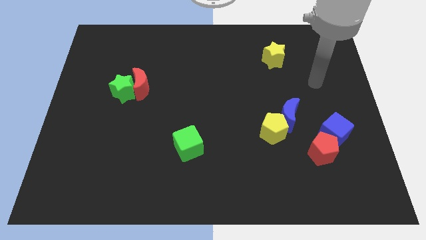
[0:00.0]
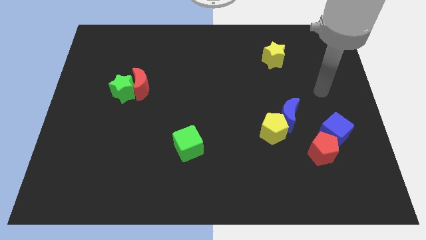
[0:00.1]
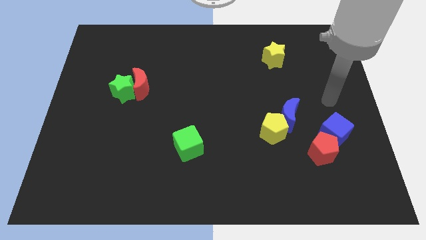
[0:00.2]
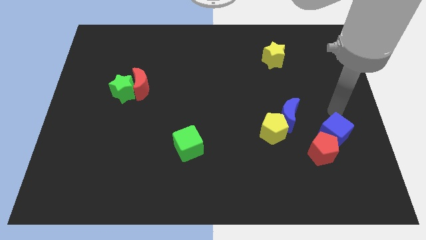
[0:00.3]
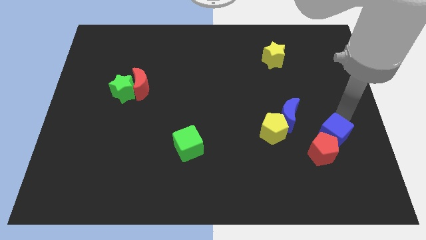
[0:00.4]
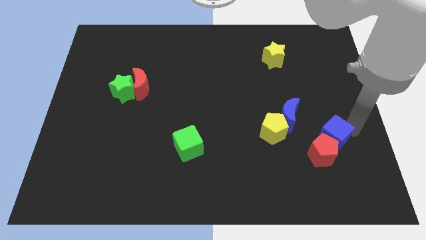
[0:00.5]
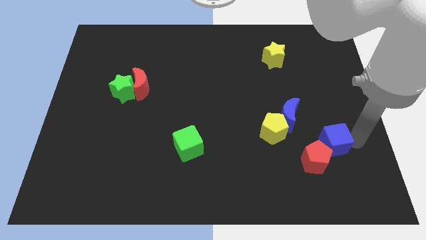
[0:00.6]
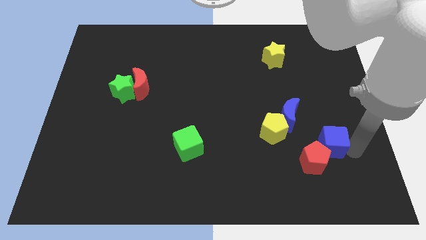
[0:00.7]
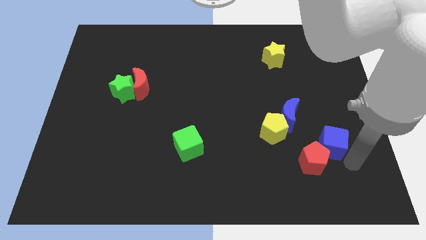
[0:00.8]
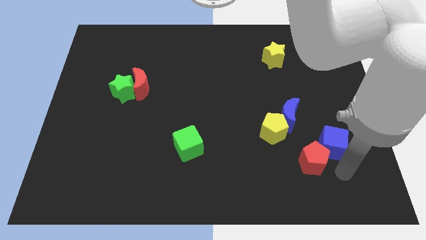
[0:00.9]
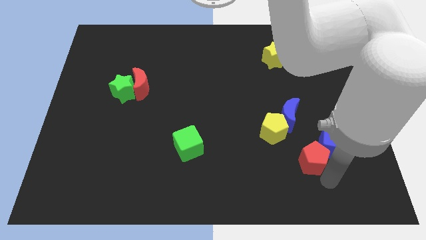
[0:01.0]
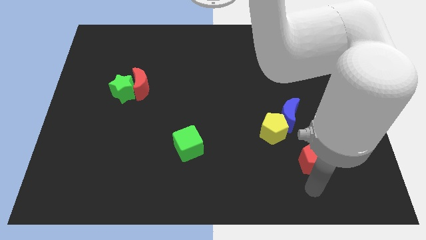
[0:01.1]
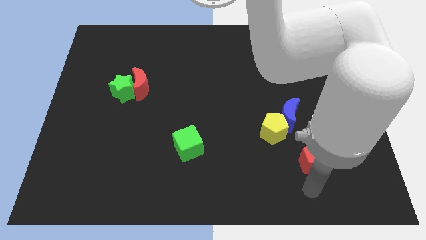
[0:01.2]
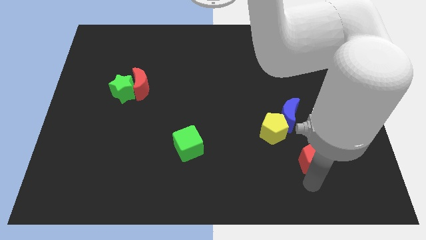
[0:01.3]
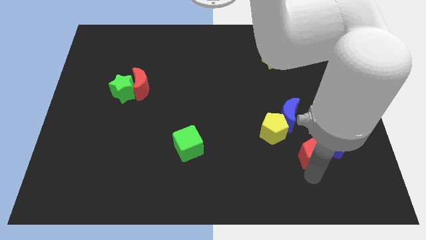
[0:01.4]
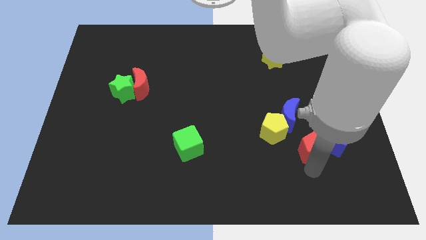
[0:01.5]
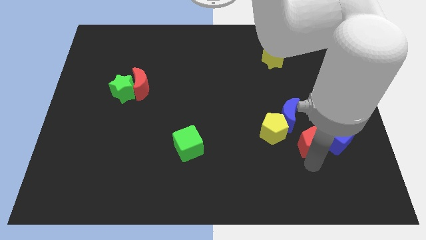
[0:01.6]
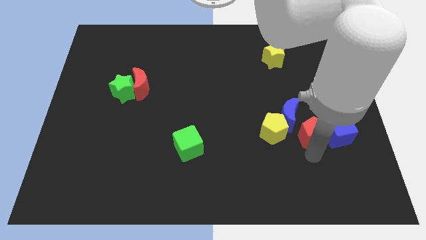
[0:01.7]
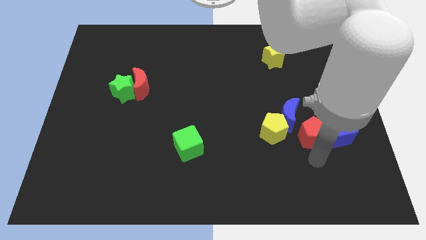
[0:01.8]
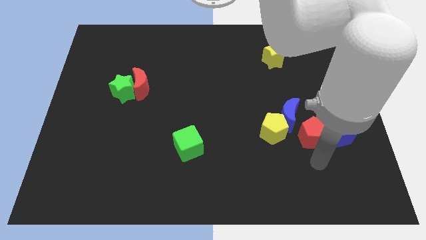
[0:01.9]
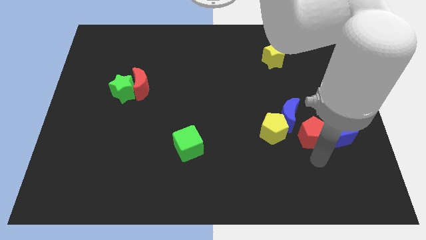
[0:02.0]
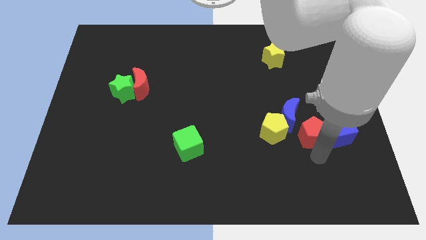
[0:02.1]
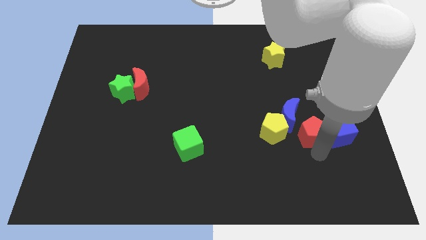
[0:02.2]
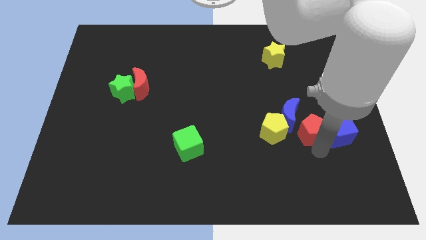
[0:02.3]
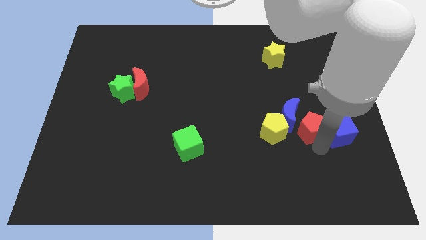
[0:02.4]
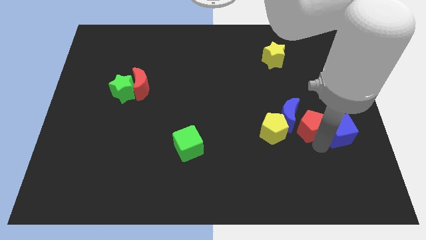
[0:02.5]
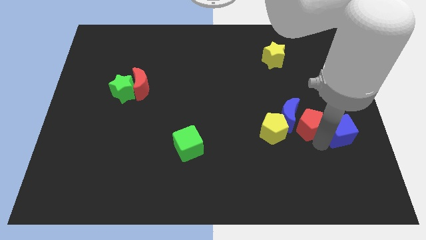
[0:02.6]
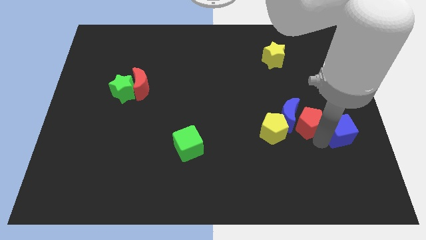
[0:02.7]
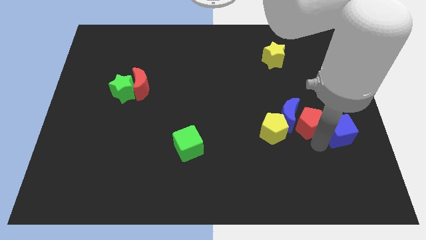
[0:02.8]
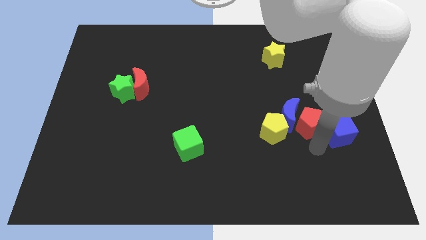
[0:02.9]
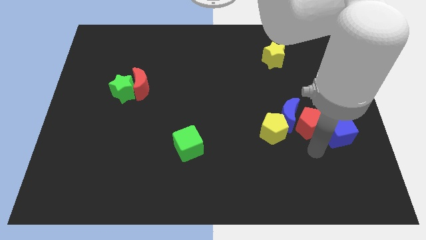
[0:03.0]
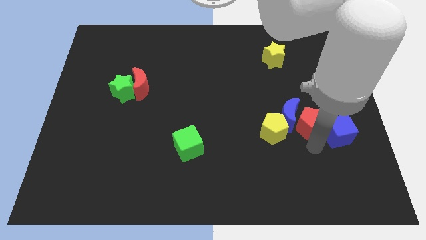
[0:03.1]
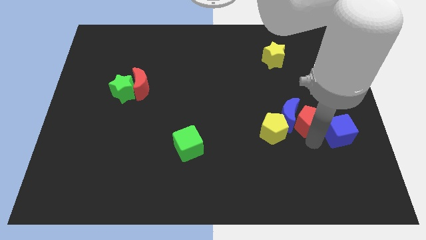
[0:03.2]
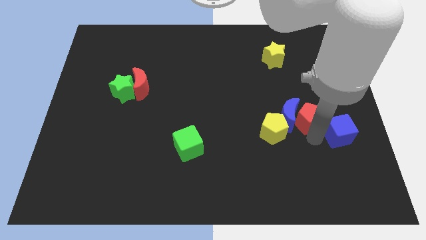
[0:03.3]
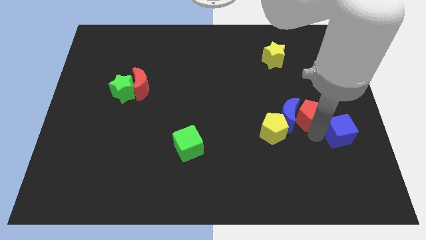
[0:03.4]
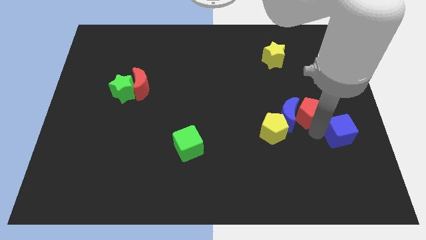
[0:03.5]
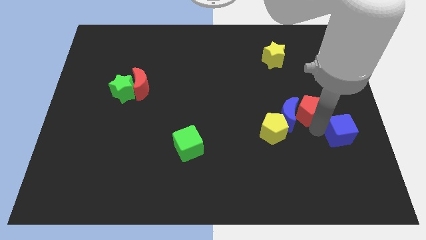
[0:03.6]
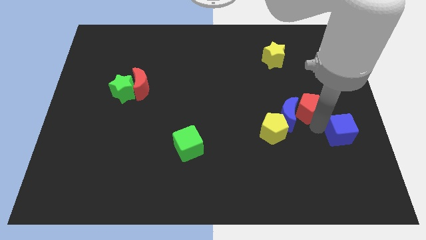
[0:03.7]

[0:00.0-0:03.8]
slightly push the red pentagon up and to the left

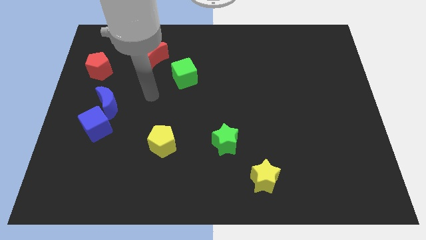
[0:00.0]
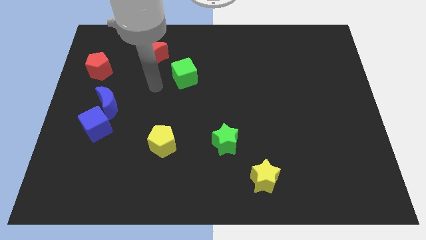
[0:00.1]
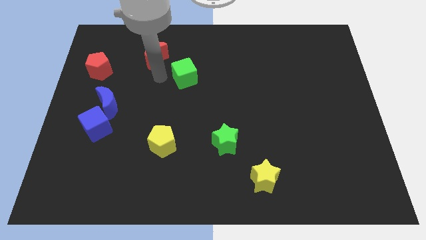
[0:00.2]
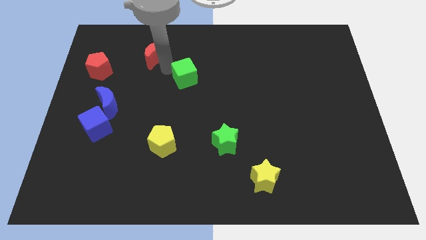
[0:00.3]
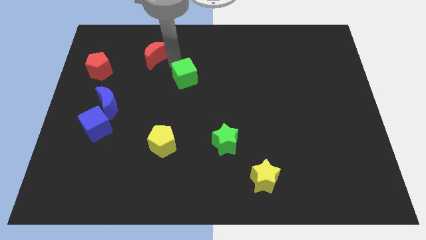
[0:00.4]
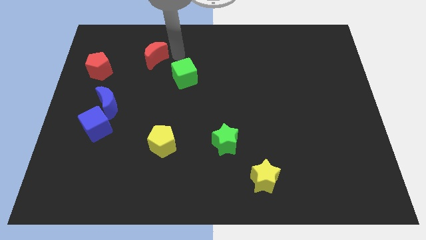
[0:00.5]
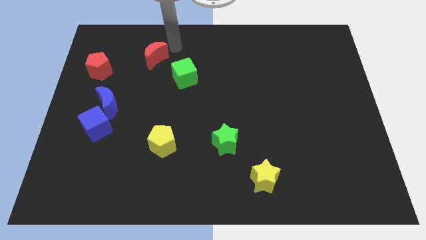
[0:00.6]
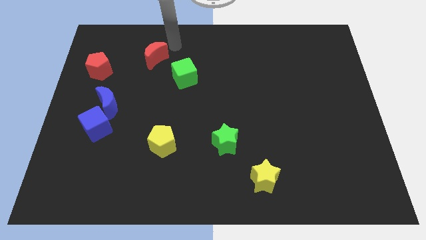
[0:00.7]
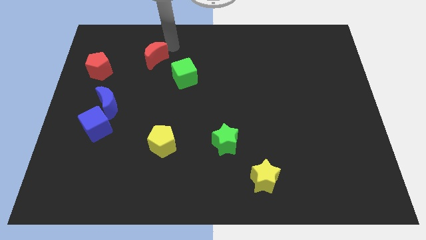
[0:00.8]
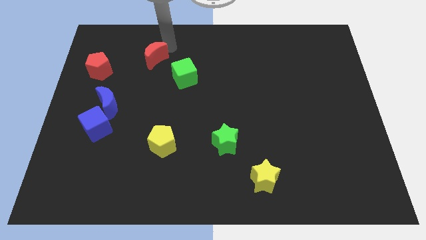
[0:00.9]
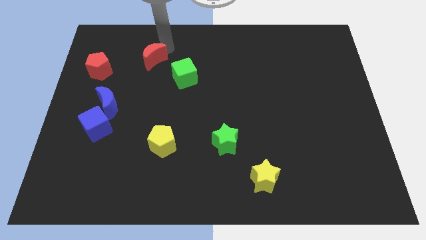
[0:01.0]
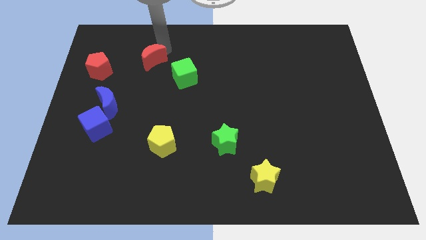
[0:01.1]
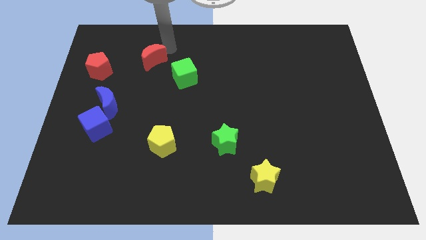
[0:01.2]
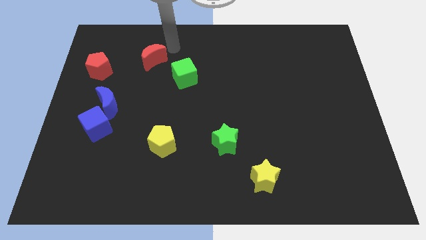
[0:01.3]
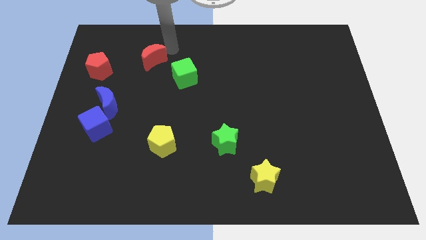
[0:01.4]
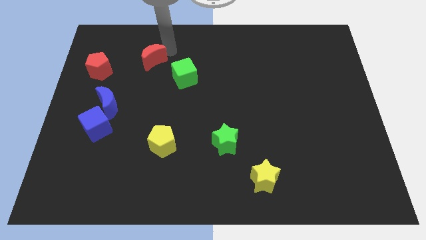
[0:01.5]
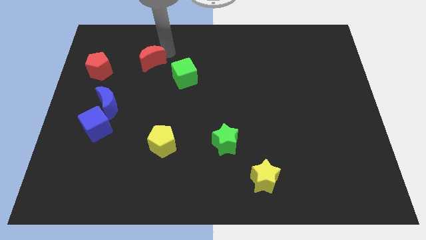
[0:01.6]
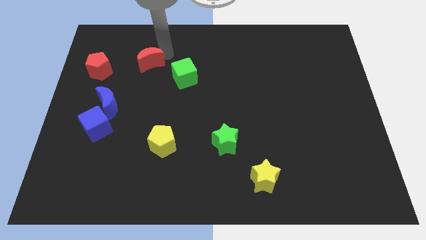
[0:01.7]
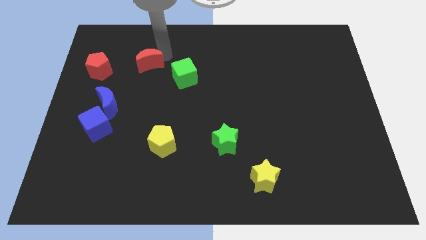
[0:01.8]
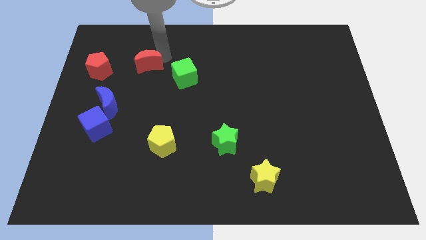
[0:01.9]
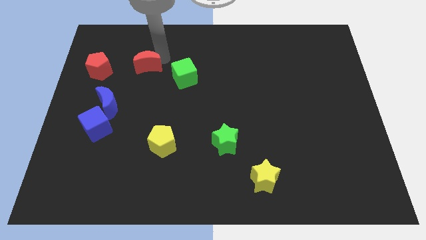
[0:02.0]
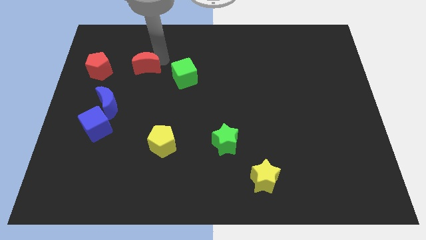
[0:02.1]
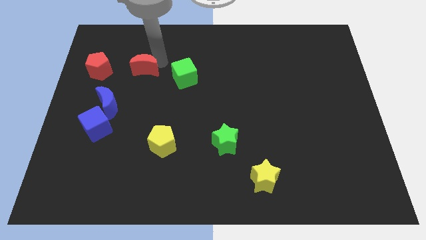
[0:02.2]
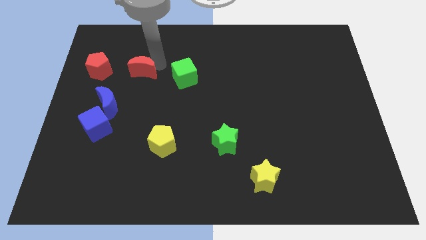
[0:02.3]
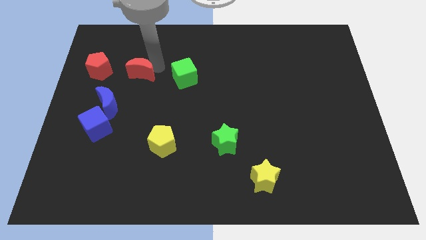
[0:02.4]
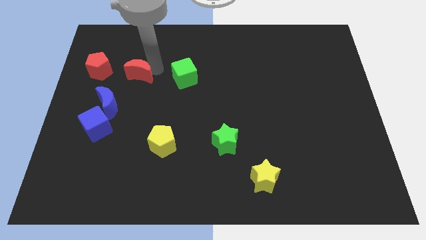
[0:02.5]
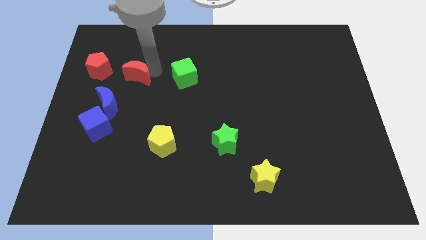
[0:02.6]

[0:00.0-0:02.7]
slightly move the red moon down and then to the left

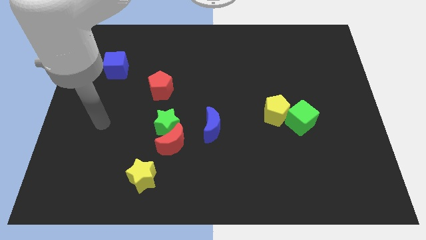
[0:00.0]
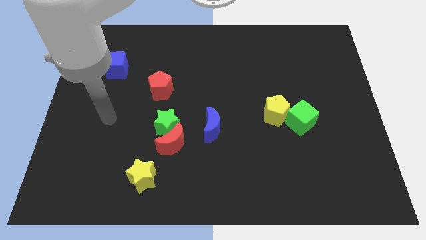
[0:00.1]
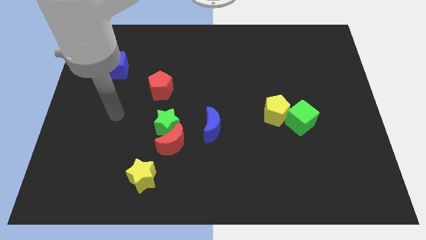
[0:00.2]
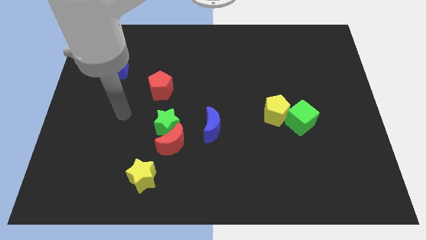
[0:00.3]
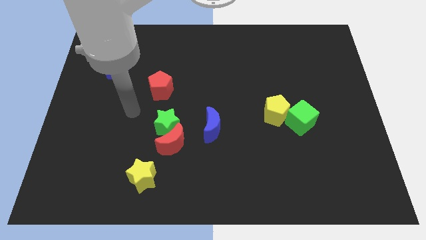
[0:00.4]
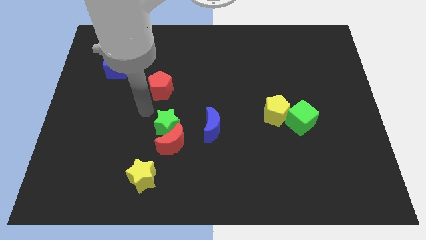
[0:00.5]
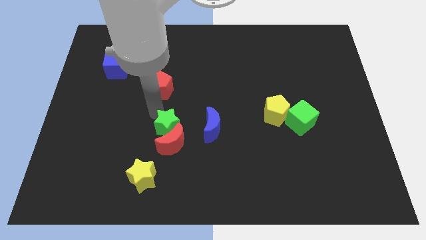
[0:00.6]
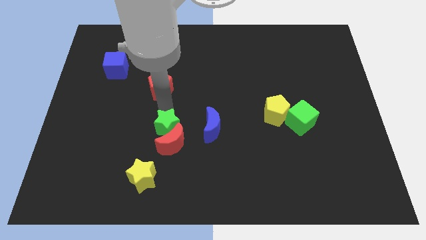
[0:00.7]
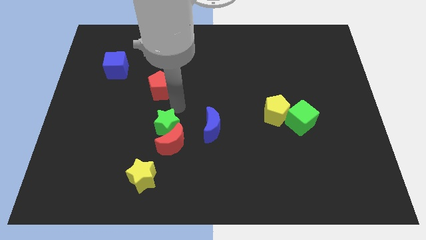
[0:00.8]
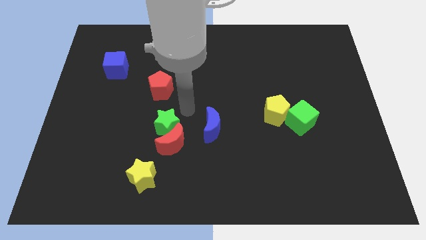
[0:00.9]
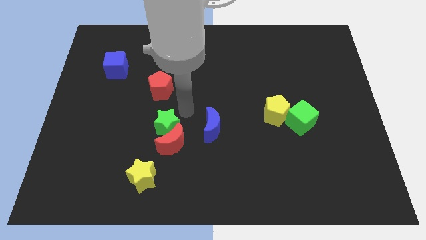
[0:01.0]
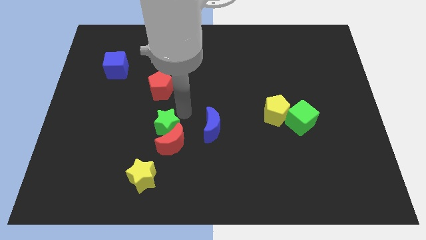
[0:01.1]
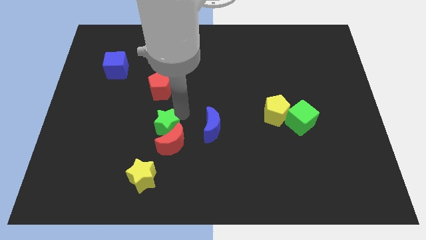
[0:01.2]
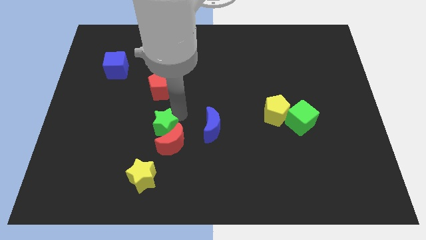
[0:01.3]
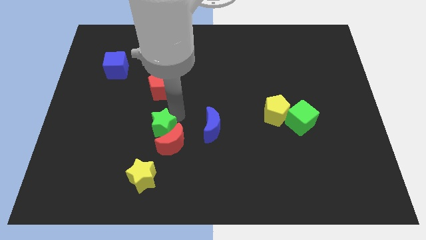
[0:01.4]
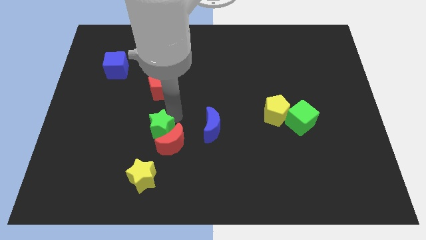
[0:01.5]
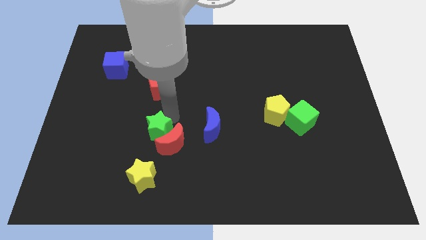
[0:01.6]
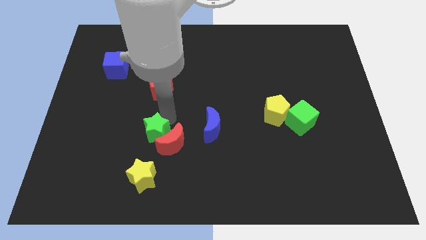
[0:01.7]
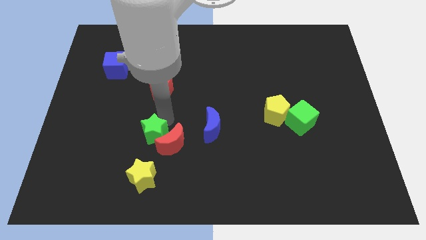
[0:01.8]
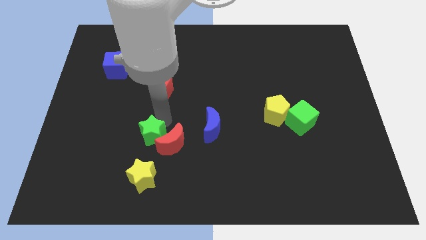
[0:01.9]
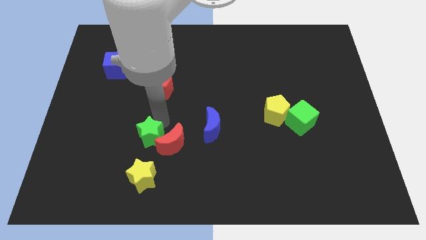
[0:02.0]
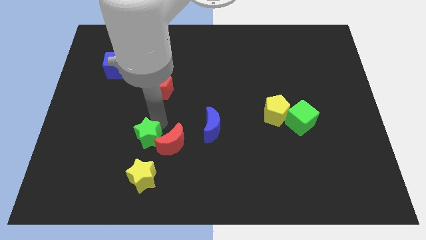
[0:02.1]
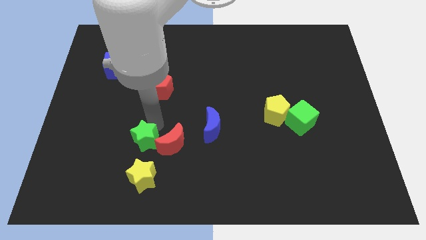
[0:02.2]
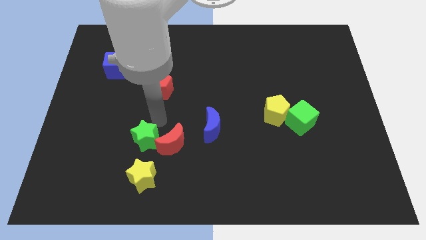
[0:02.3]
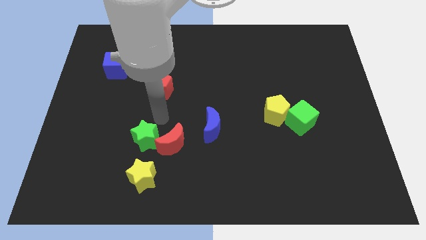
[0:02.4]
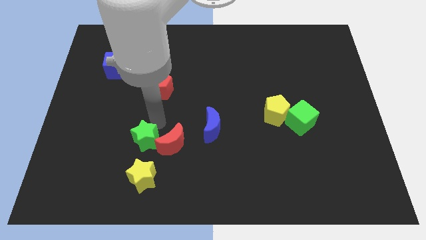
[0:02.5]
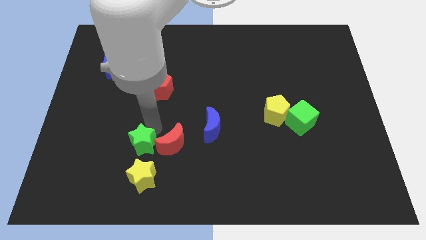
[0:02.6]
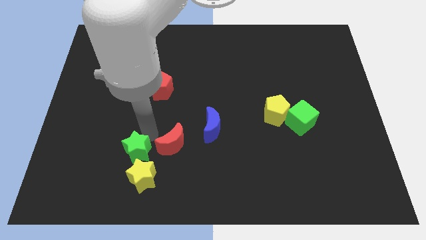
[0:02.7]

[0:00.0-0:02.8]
push the green star downwards and to the left a little
